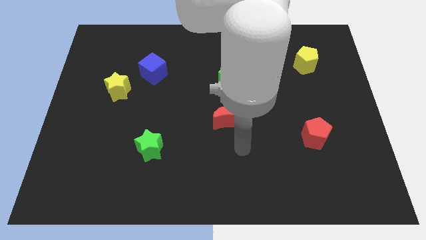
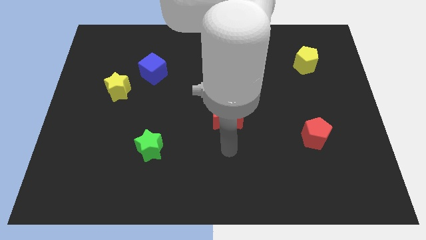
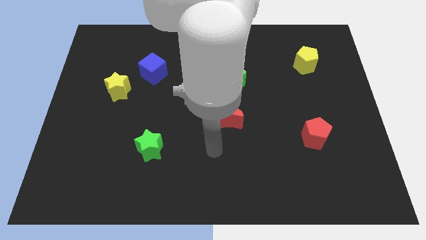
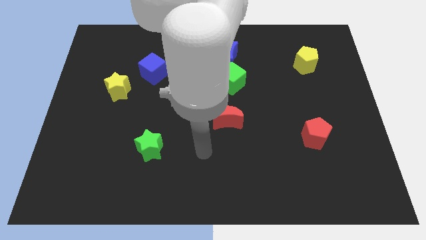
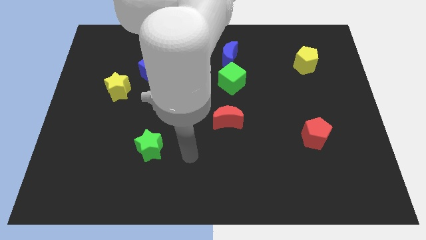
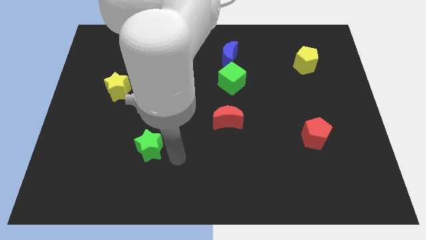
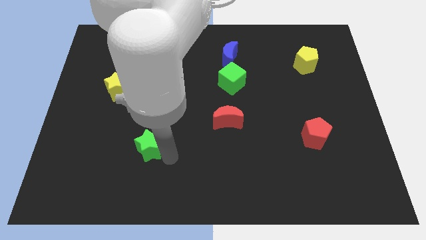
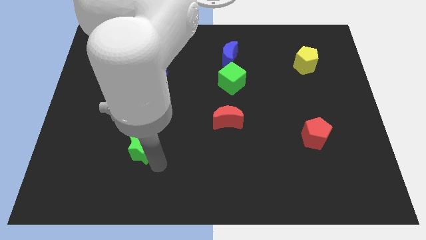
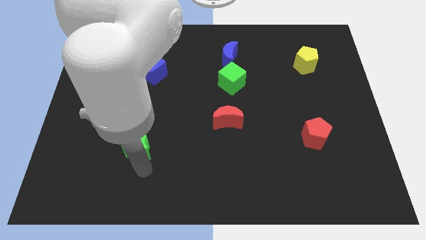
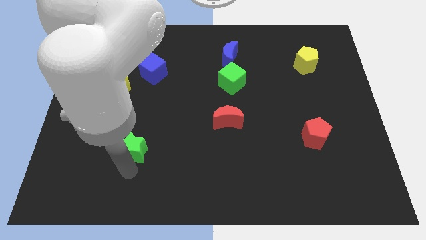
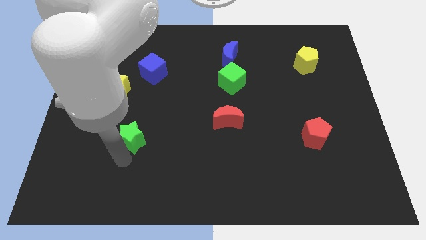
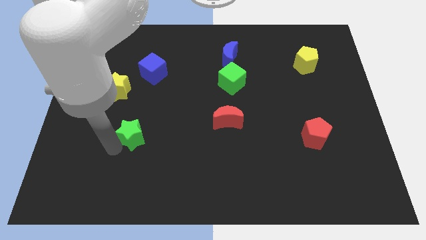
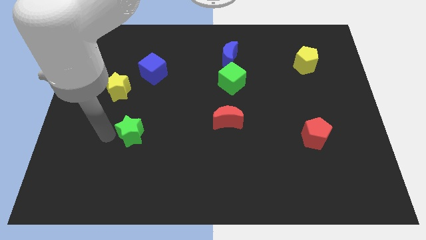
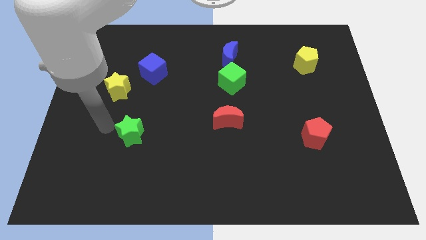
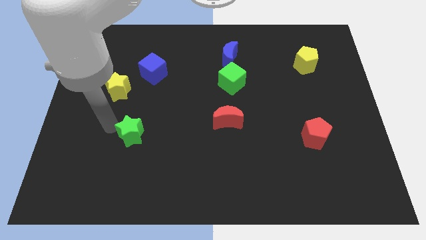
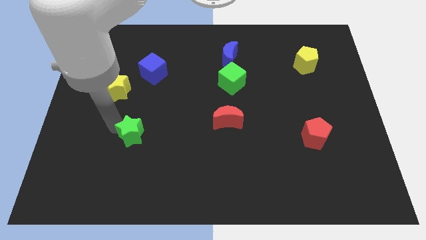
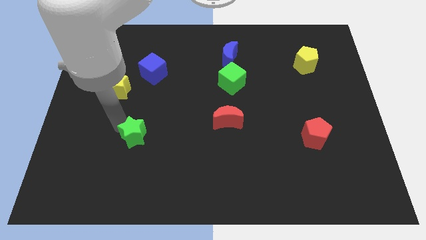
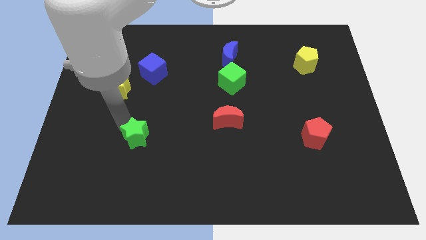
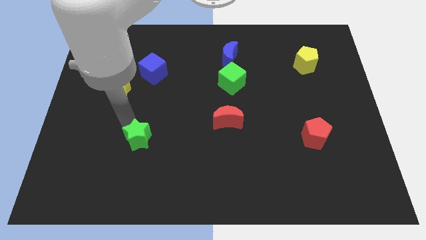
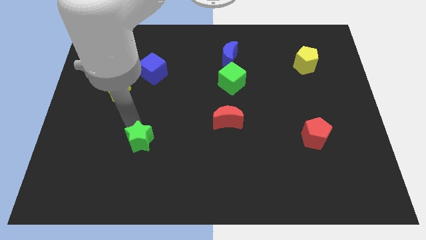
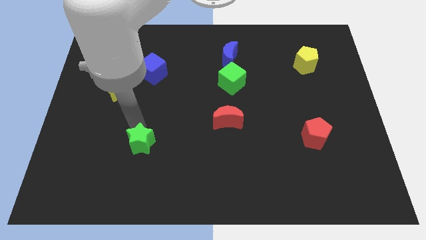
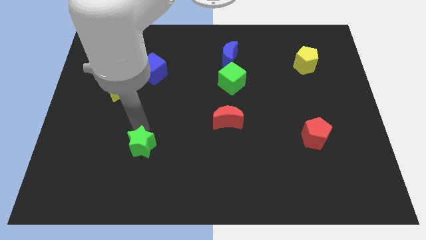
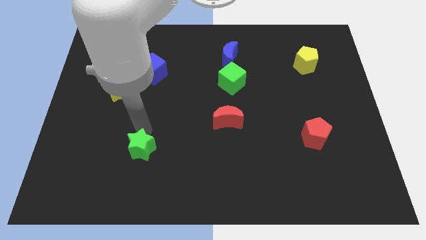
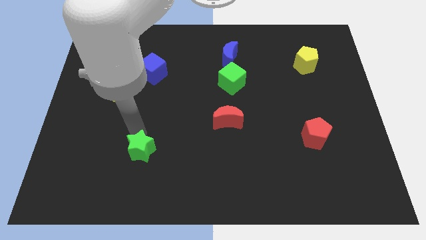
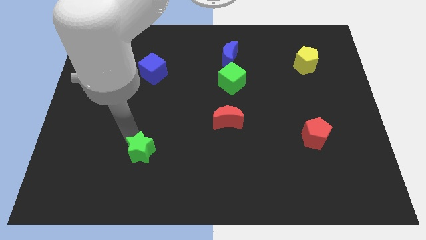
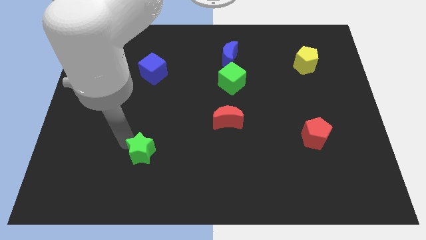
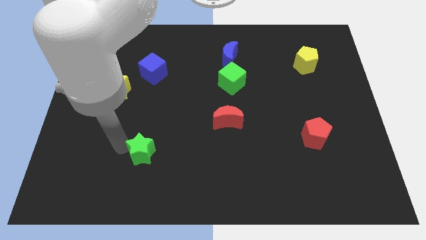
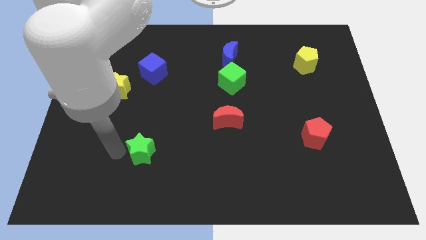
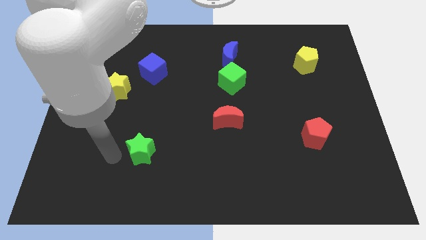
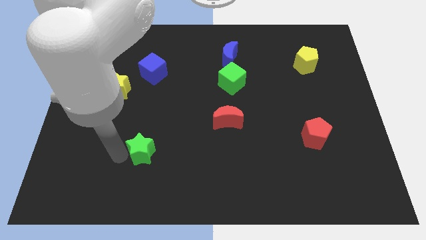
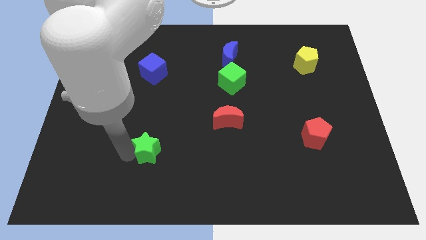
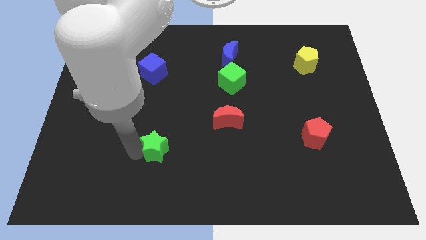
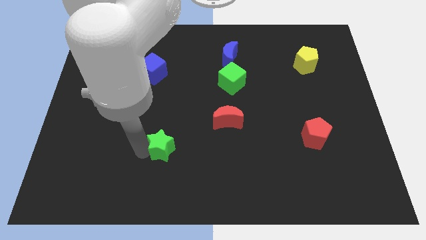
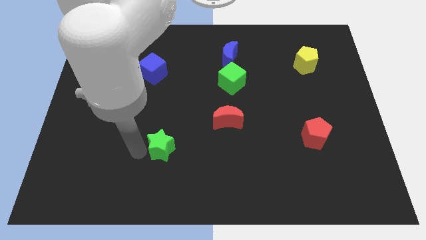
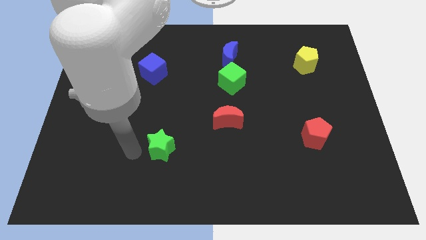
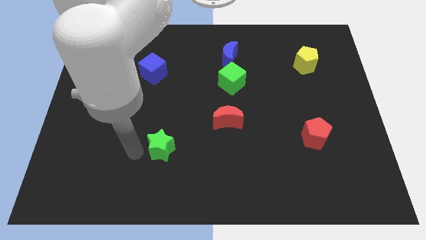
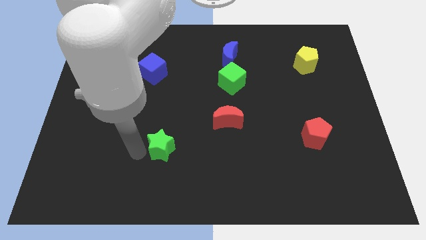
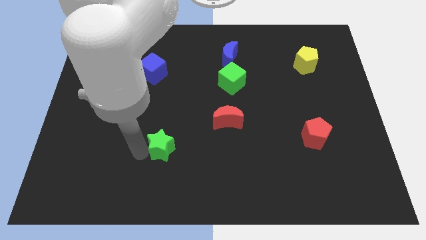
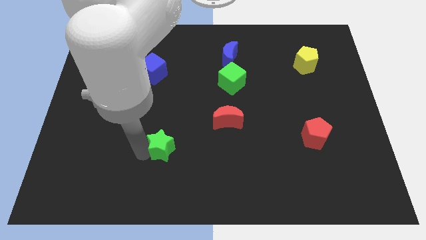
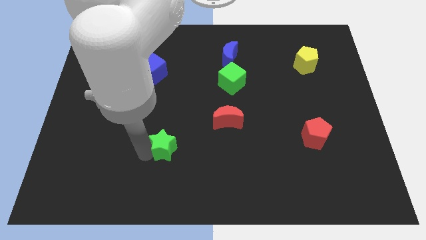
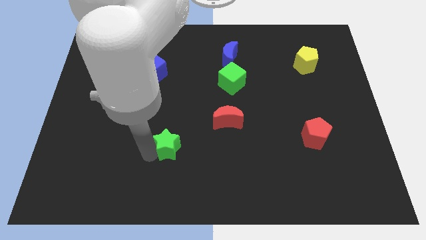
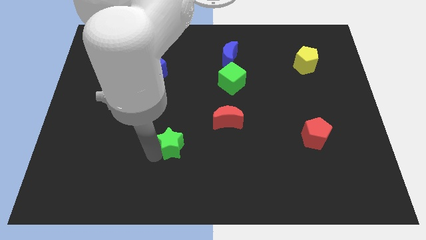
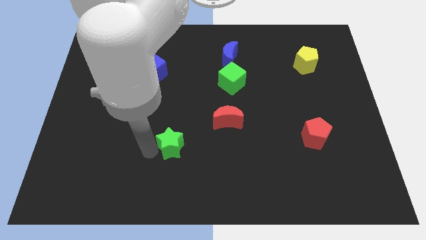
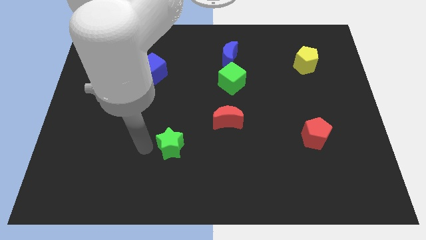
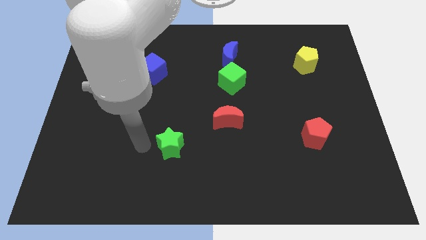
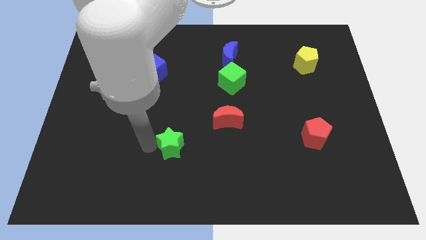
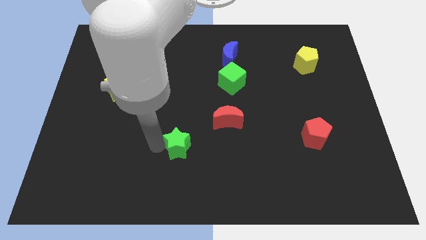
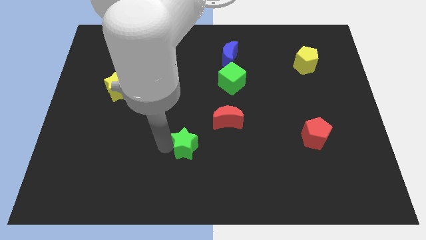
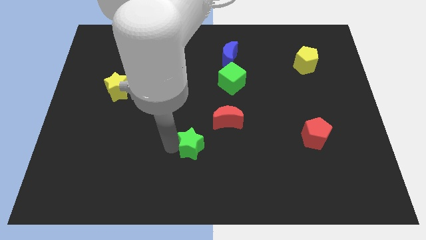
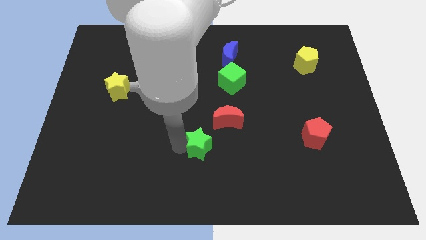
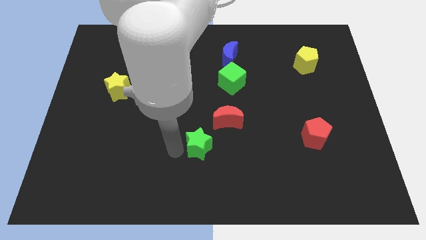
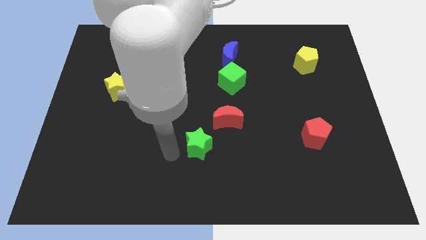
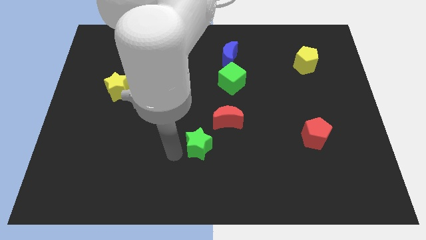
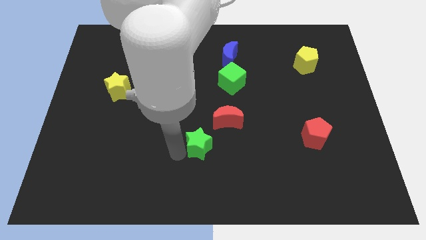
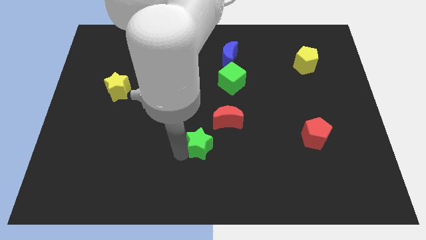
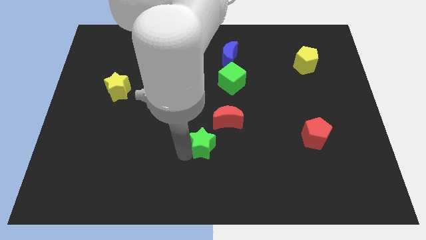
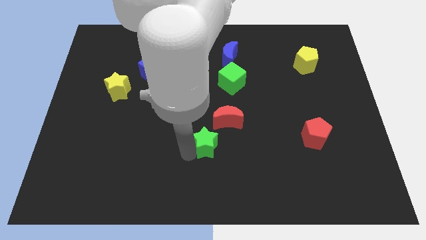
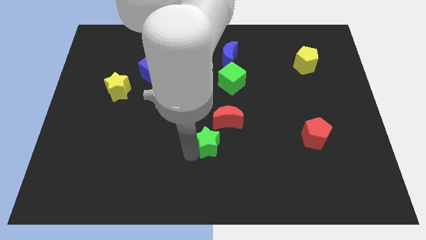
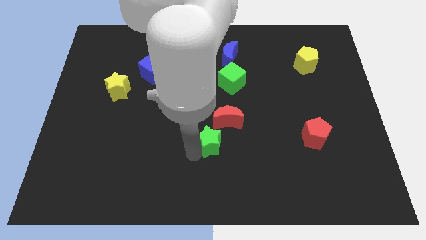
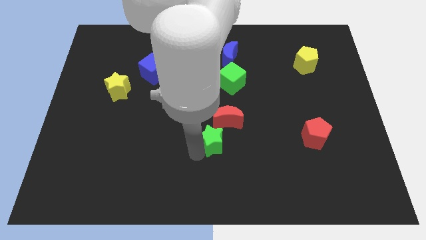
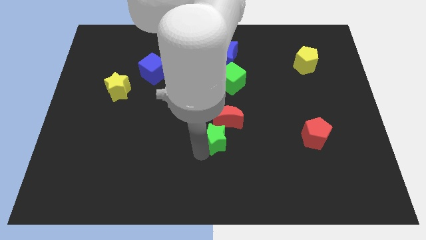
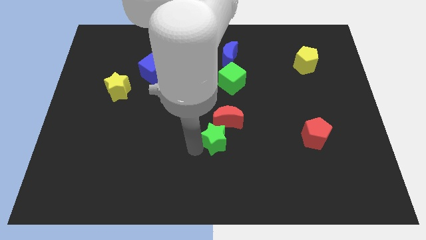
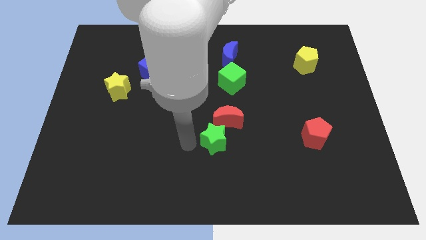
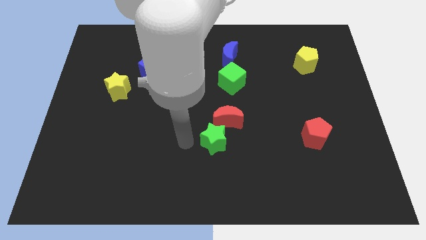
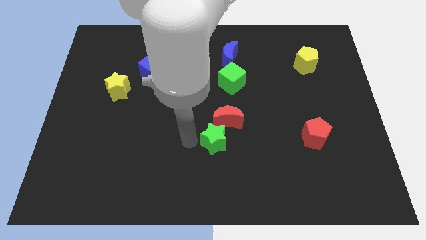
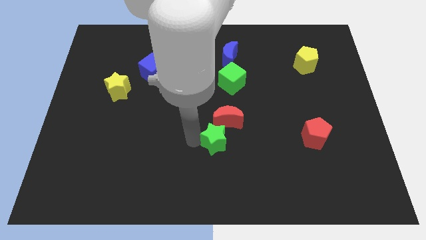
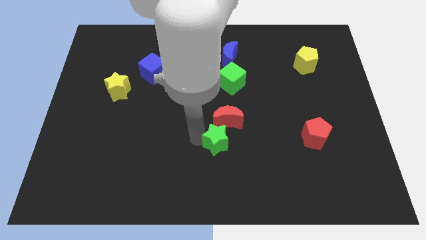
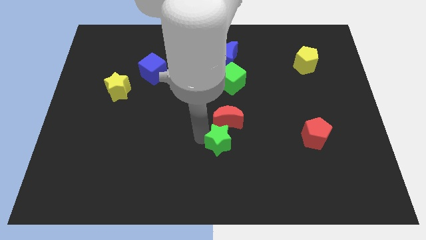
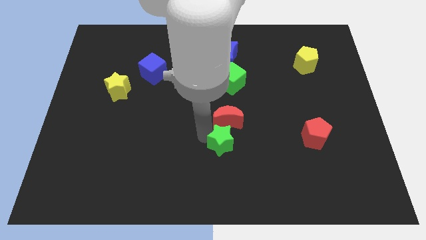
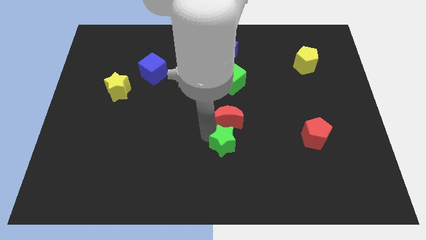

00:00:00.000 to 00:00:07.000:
slide the green star to the bottom right side of the red moon

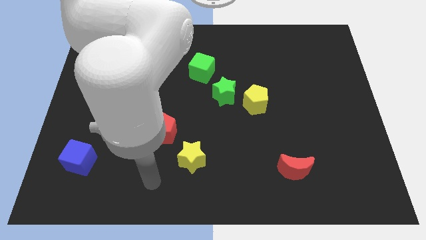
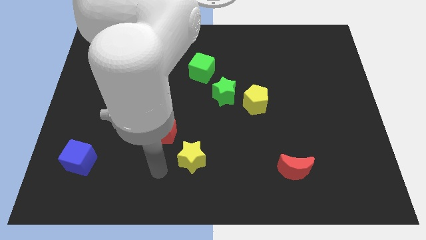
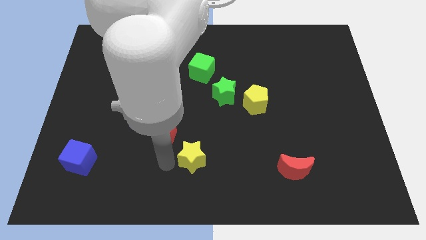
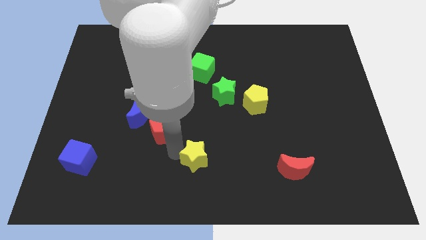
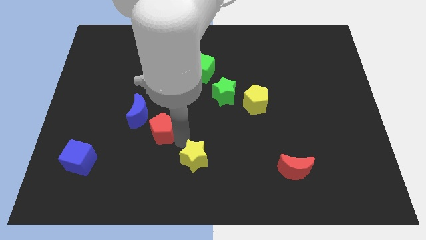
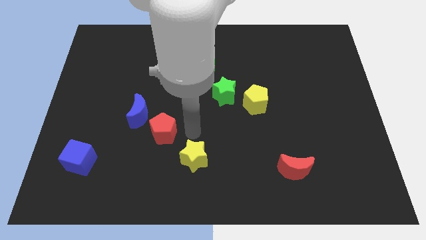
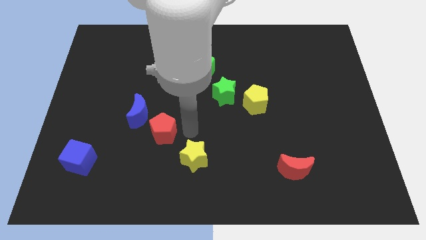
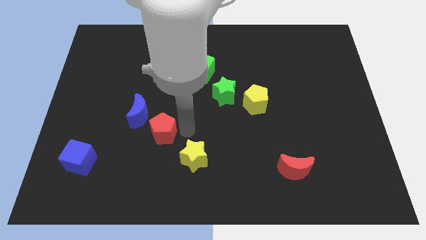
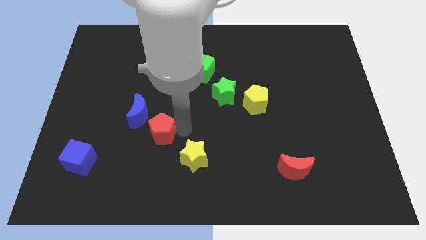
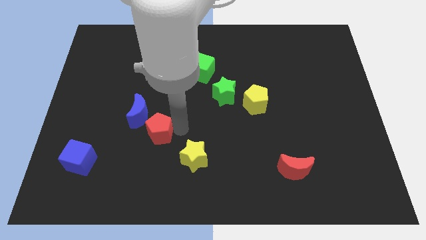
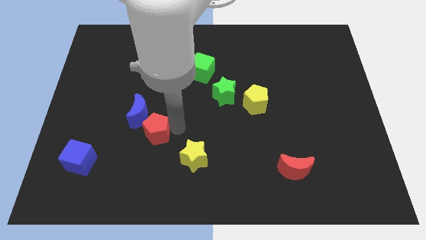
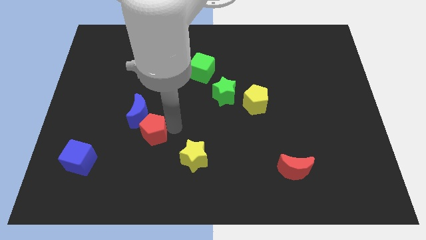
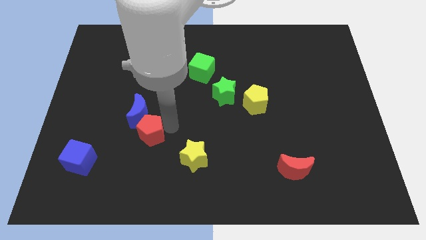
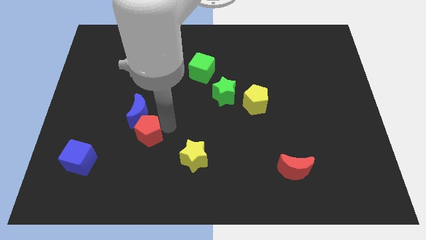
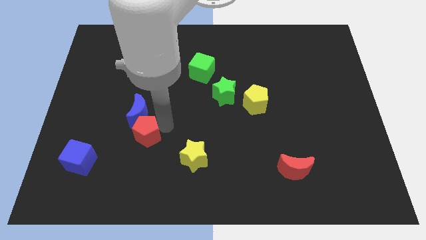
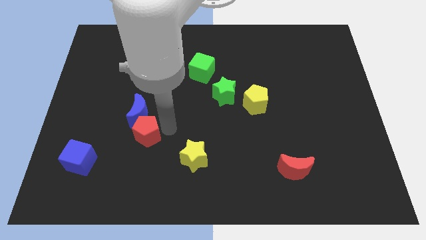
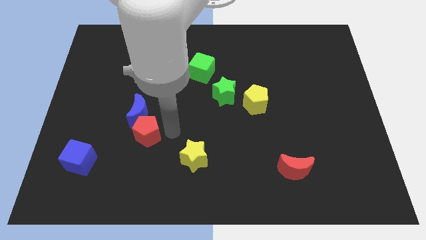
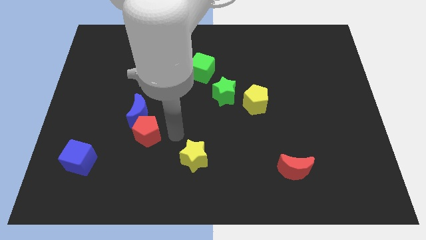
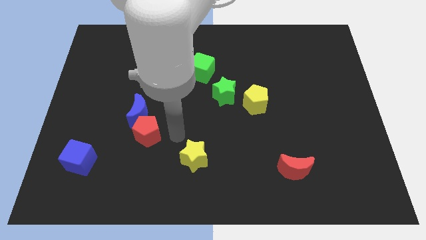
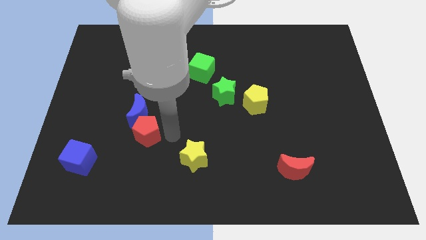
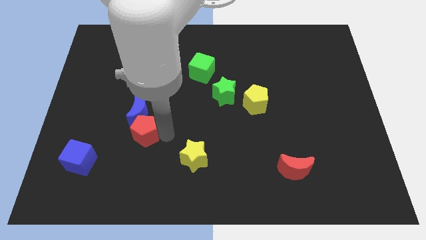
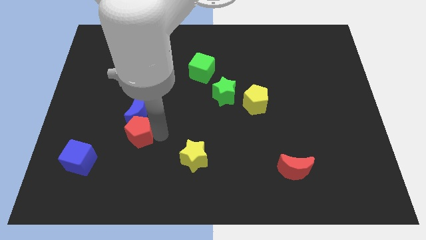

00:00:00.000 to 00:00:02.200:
push the red pentagon to the bottom left side of the blue moon
